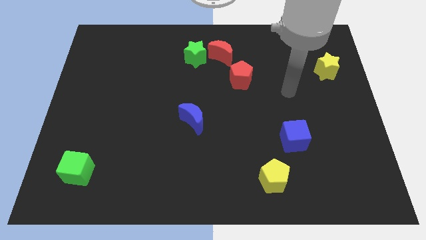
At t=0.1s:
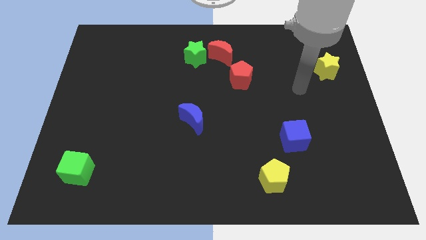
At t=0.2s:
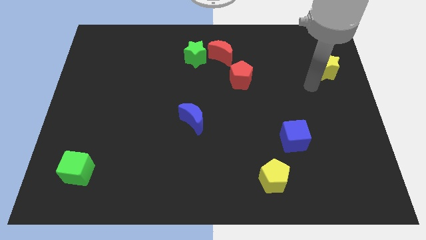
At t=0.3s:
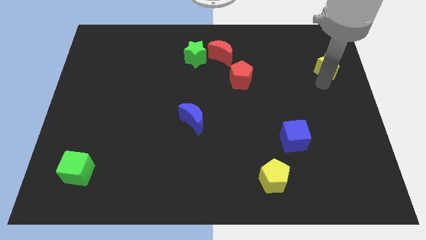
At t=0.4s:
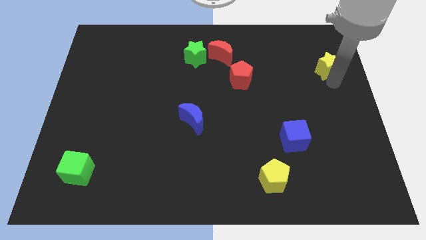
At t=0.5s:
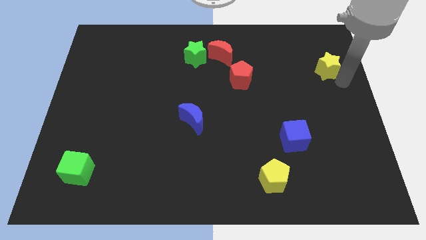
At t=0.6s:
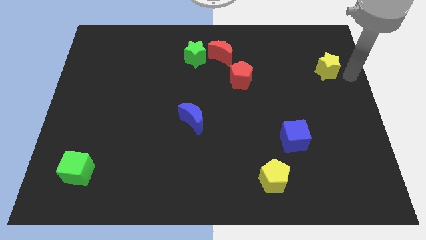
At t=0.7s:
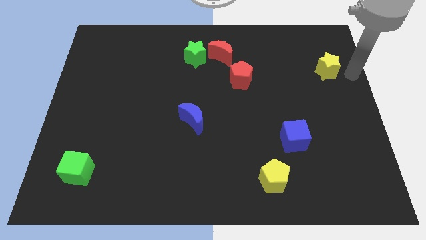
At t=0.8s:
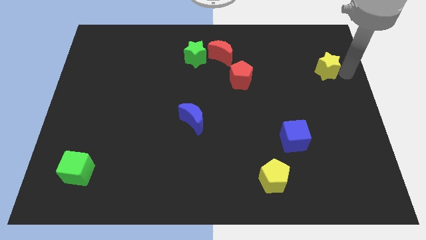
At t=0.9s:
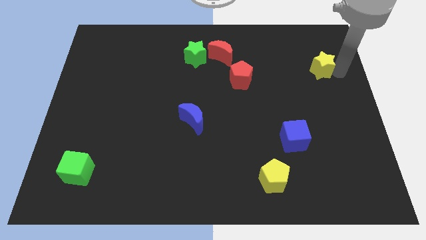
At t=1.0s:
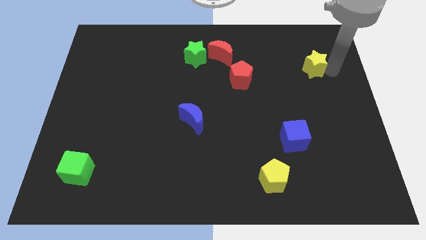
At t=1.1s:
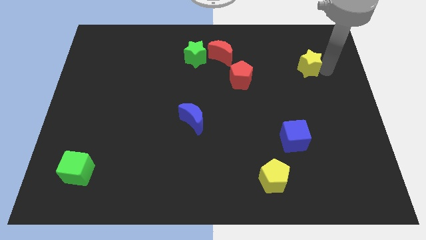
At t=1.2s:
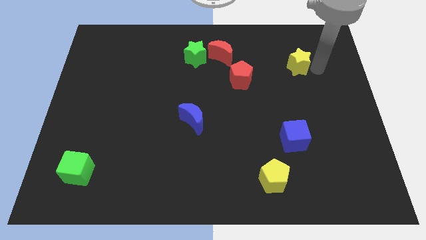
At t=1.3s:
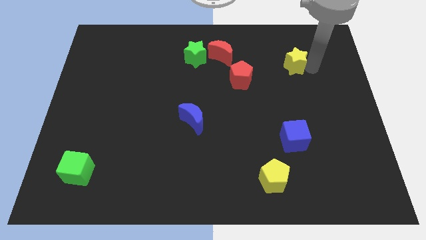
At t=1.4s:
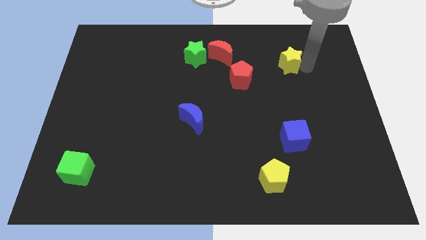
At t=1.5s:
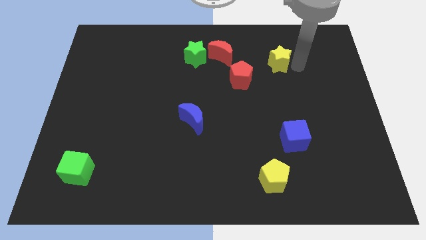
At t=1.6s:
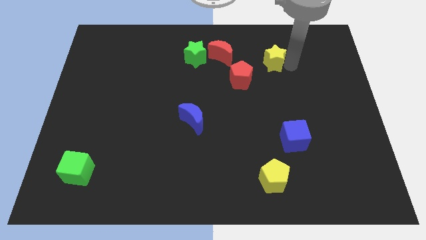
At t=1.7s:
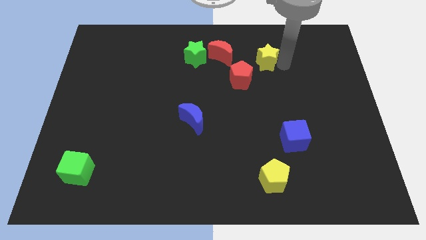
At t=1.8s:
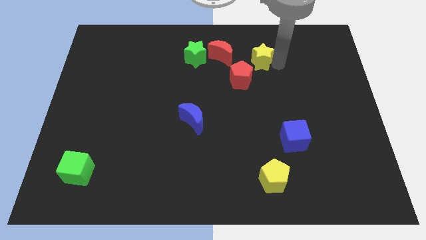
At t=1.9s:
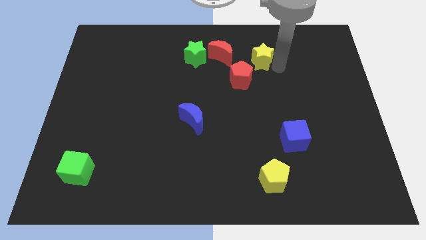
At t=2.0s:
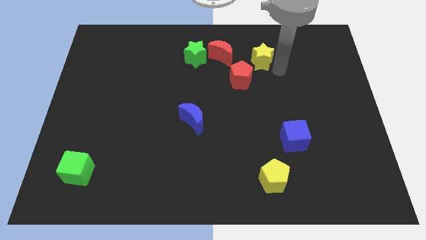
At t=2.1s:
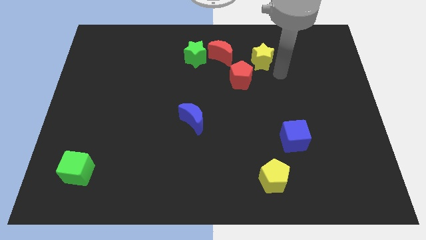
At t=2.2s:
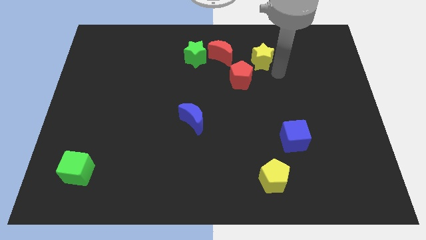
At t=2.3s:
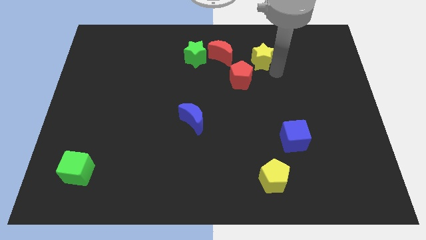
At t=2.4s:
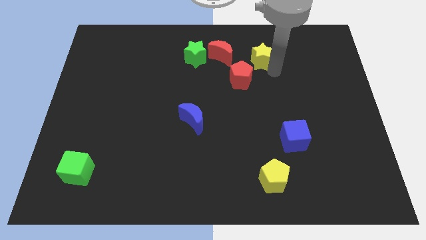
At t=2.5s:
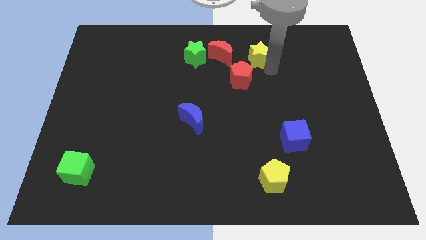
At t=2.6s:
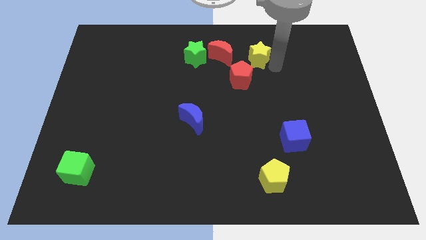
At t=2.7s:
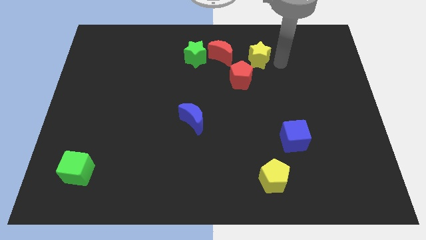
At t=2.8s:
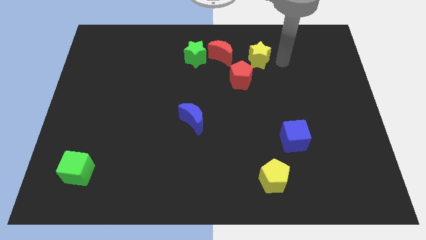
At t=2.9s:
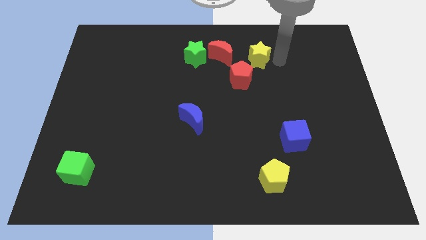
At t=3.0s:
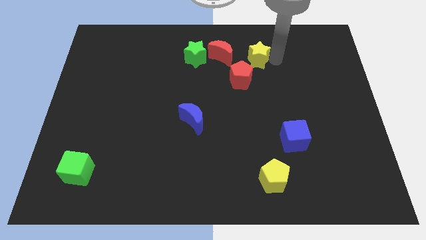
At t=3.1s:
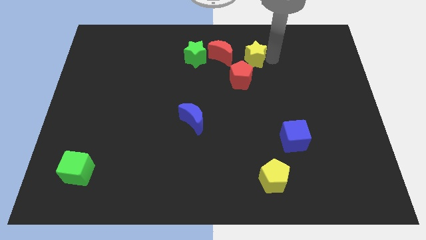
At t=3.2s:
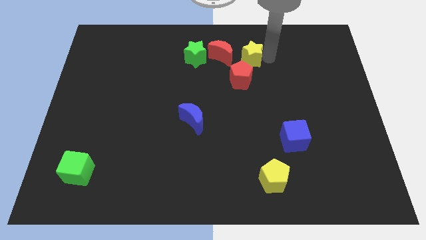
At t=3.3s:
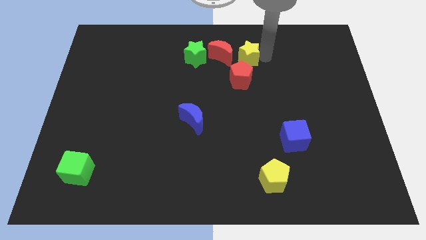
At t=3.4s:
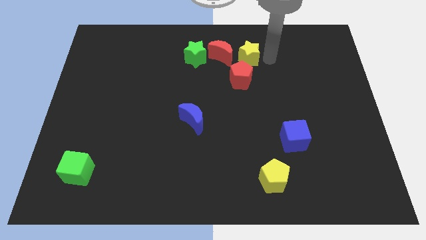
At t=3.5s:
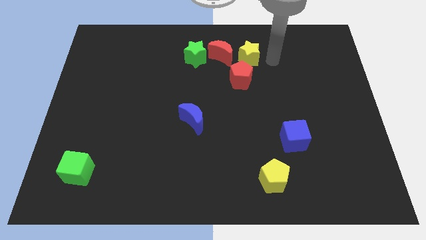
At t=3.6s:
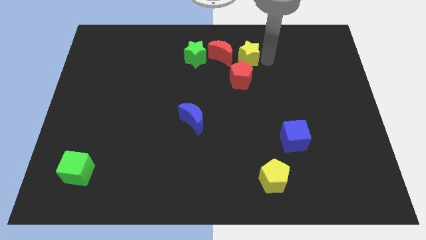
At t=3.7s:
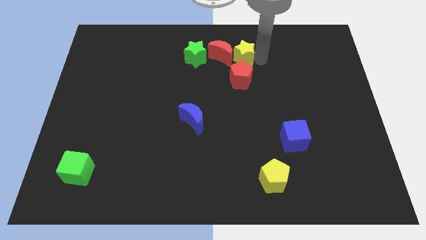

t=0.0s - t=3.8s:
push the yellow star to the red moon

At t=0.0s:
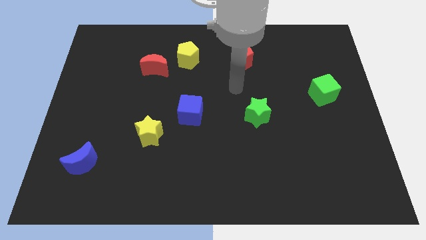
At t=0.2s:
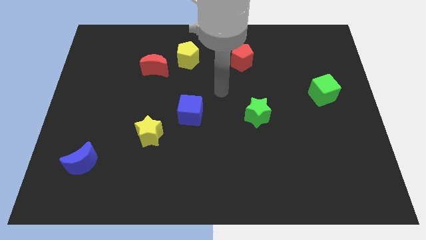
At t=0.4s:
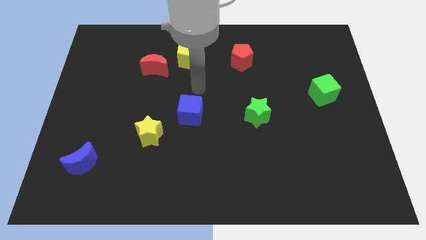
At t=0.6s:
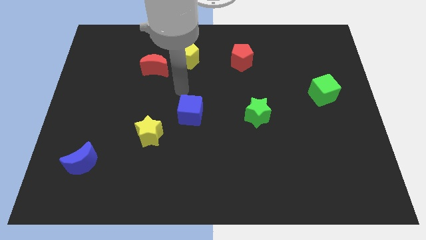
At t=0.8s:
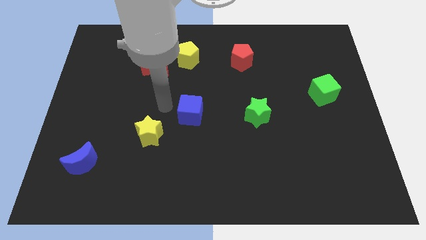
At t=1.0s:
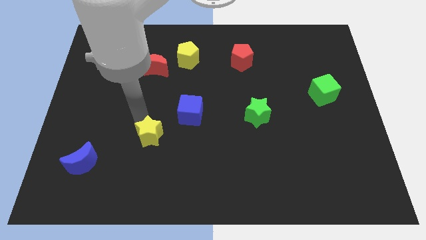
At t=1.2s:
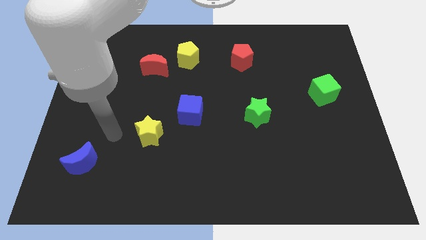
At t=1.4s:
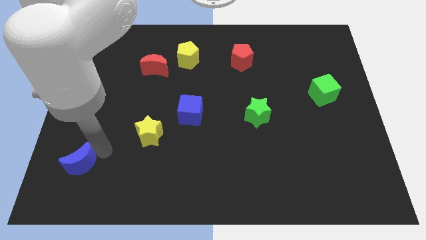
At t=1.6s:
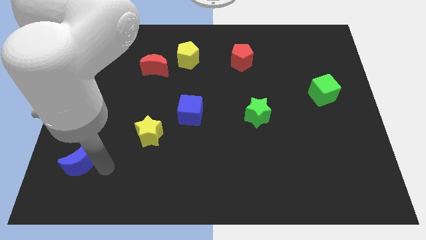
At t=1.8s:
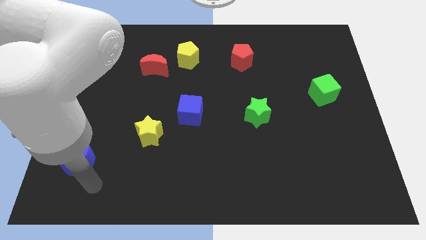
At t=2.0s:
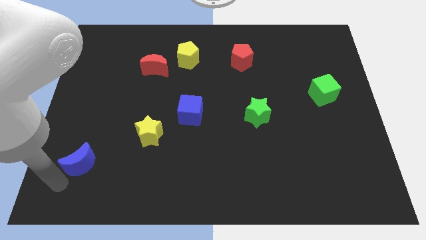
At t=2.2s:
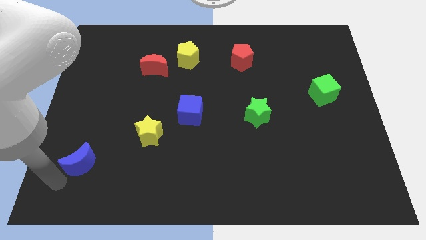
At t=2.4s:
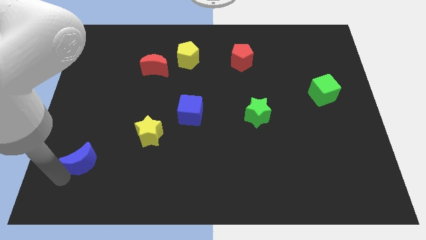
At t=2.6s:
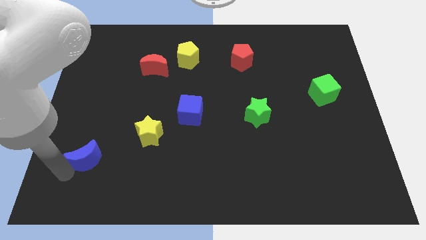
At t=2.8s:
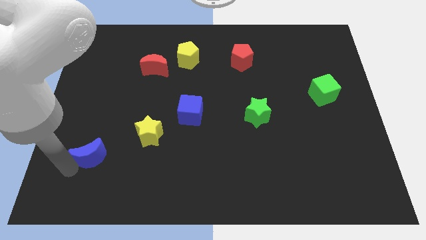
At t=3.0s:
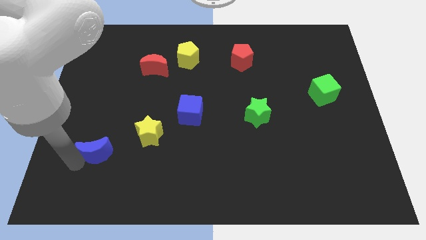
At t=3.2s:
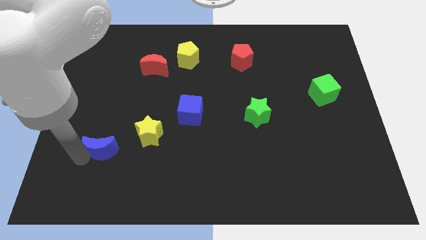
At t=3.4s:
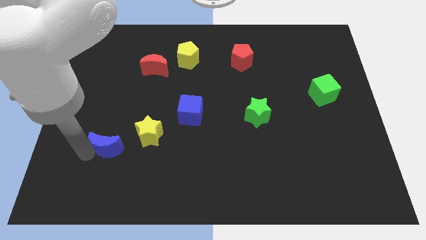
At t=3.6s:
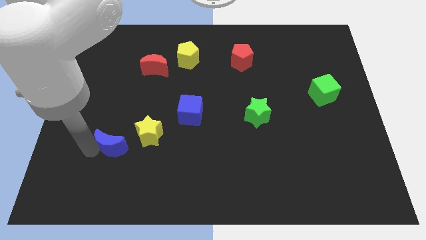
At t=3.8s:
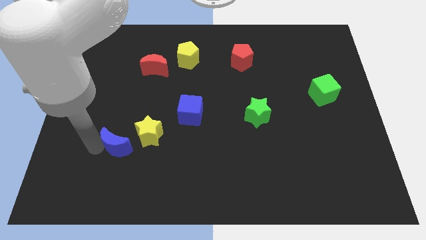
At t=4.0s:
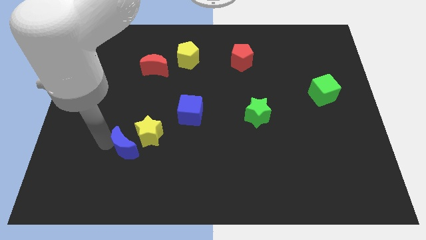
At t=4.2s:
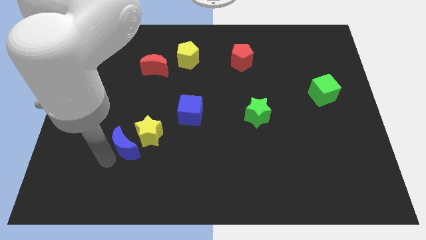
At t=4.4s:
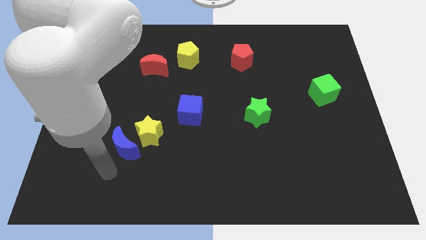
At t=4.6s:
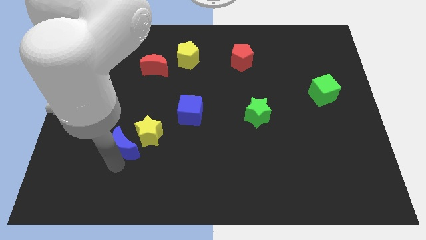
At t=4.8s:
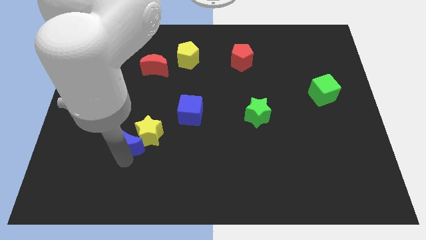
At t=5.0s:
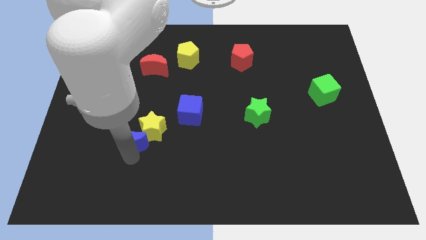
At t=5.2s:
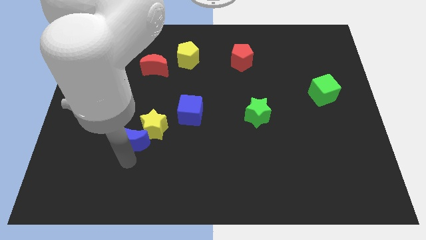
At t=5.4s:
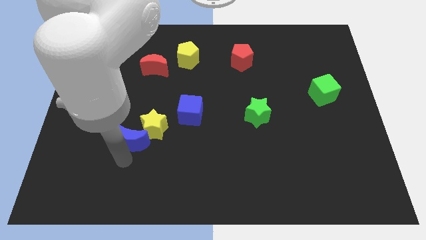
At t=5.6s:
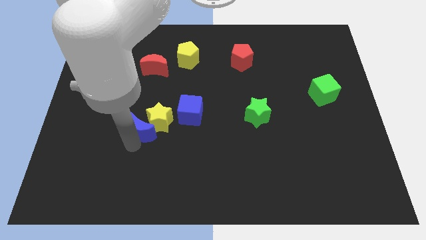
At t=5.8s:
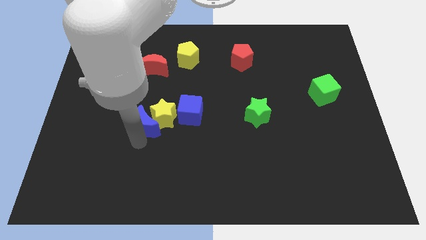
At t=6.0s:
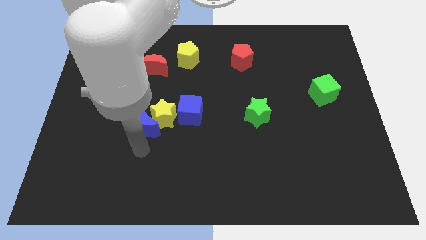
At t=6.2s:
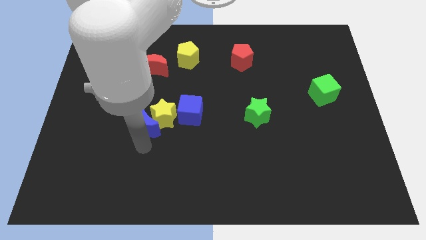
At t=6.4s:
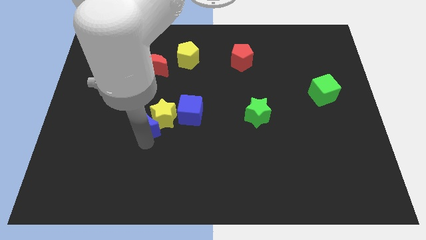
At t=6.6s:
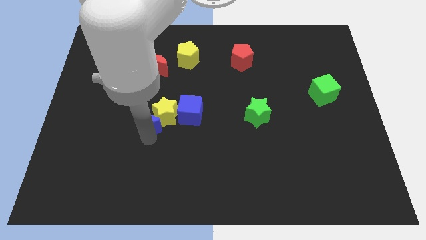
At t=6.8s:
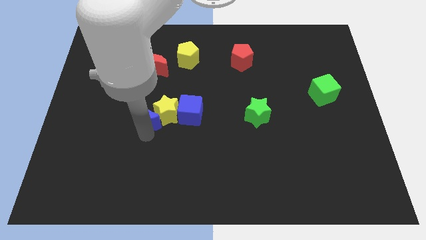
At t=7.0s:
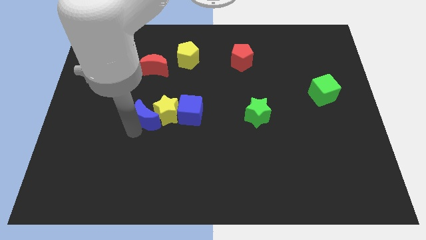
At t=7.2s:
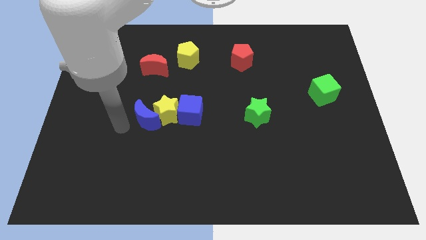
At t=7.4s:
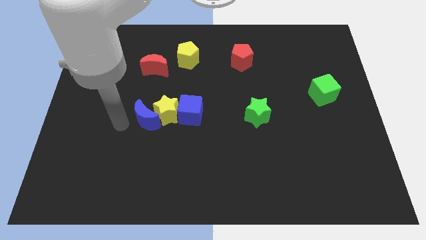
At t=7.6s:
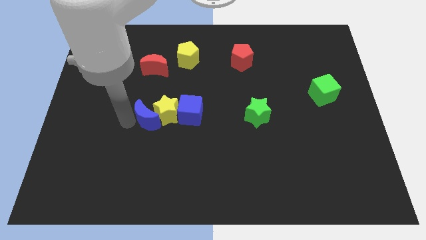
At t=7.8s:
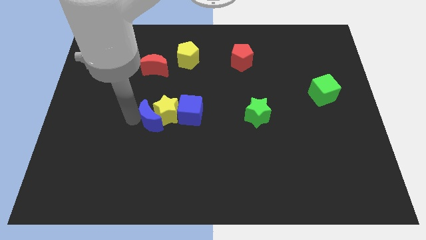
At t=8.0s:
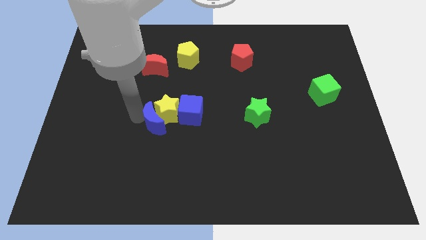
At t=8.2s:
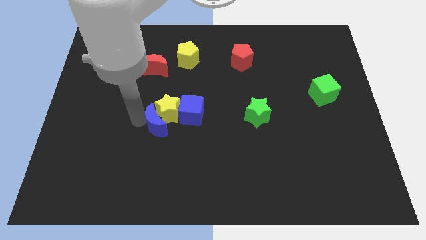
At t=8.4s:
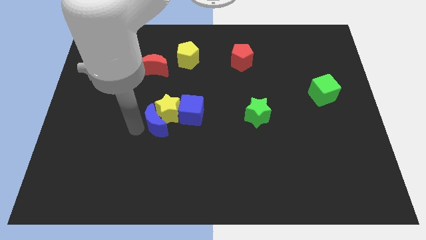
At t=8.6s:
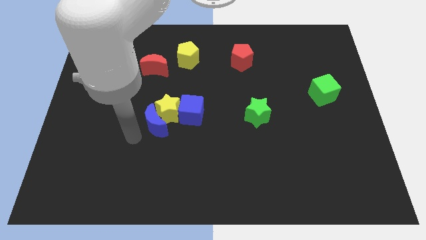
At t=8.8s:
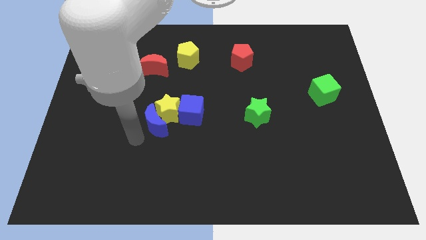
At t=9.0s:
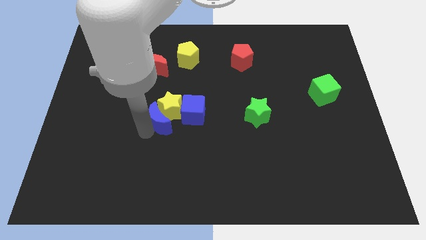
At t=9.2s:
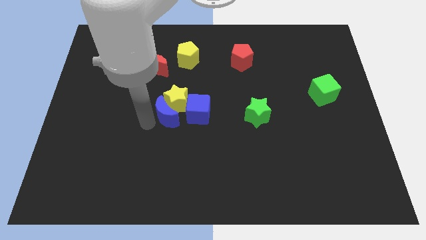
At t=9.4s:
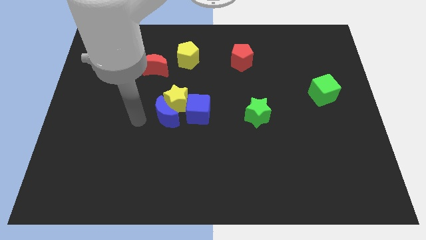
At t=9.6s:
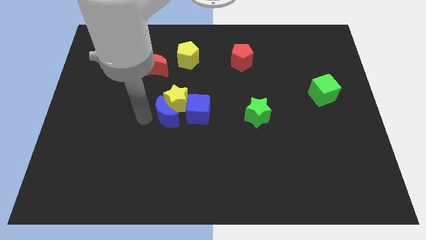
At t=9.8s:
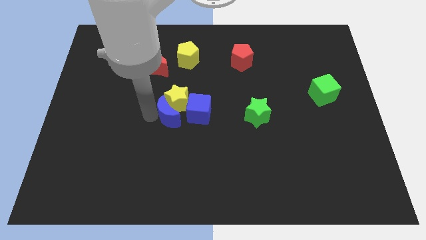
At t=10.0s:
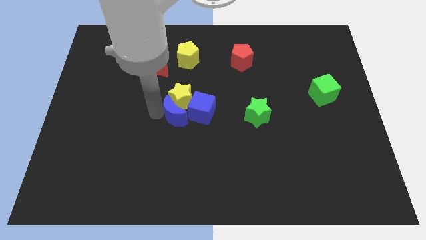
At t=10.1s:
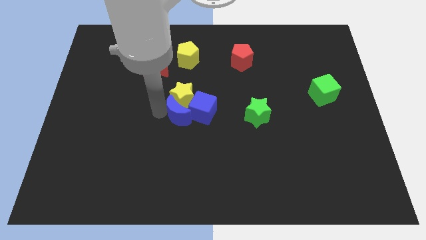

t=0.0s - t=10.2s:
slide the blue moon to the blue cube
